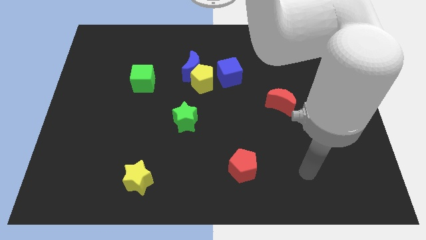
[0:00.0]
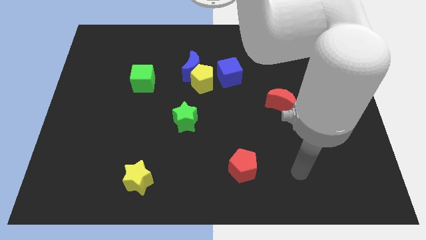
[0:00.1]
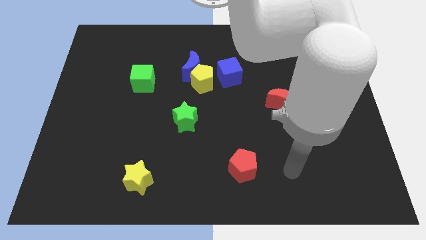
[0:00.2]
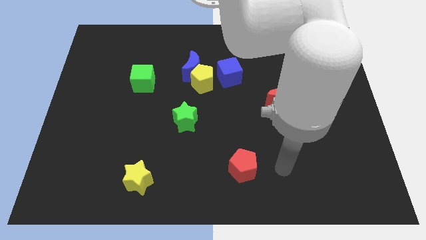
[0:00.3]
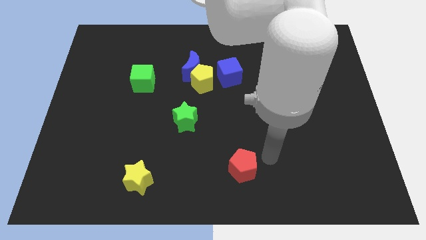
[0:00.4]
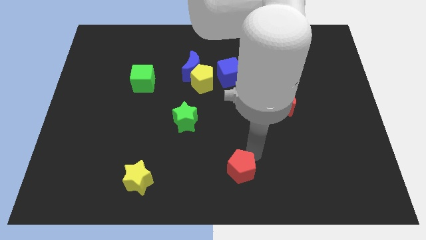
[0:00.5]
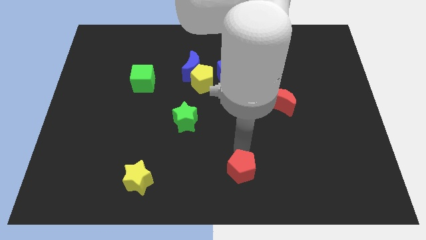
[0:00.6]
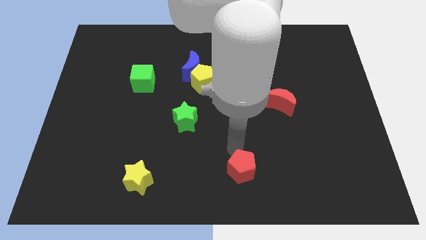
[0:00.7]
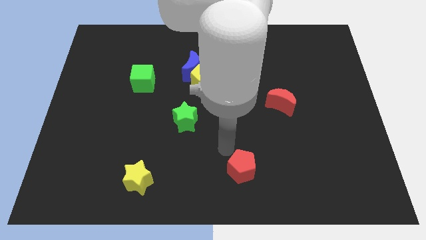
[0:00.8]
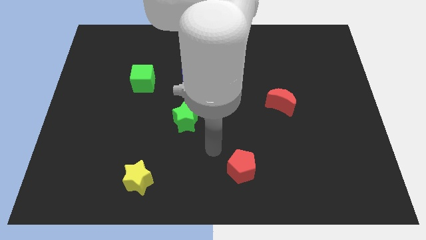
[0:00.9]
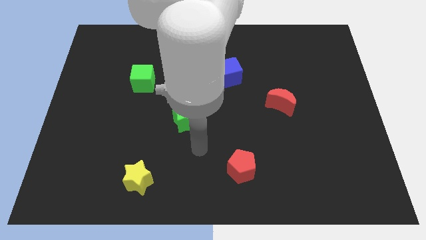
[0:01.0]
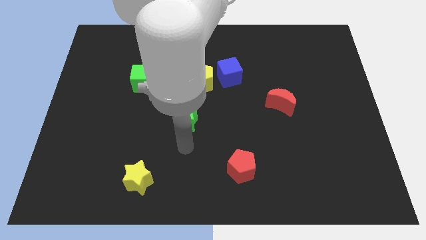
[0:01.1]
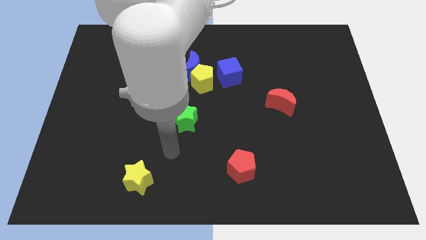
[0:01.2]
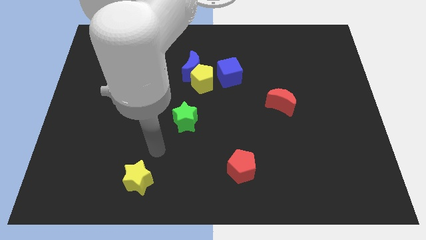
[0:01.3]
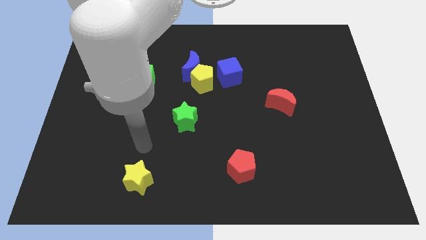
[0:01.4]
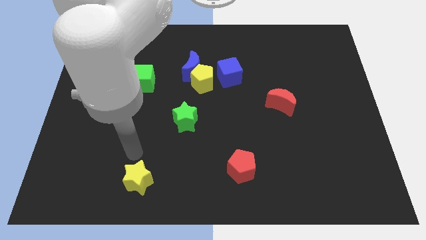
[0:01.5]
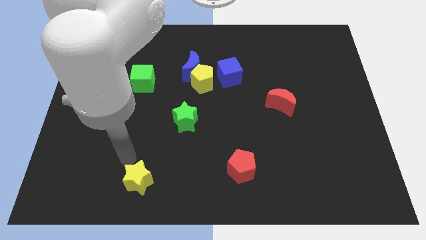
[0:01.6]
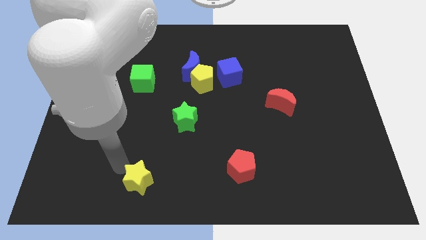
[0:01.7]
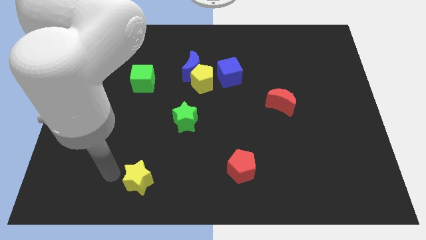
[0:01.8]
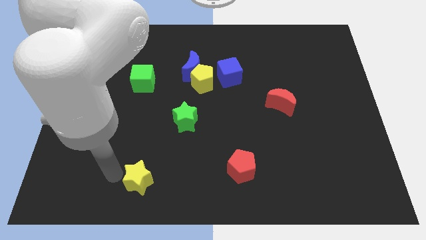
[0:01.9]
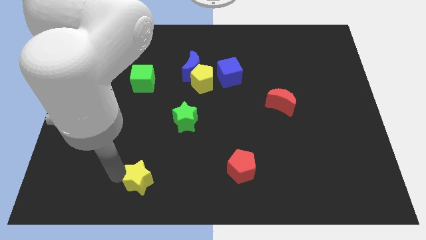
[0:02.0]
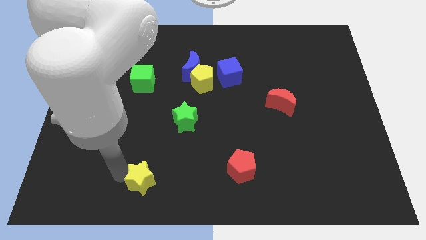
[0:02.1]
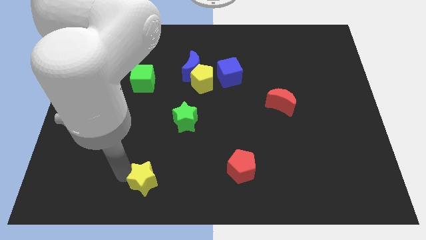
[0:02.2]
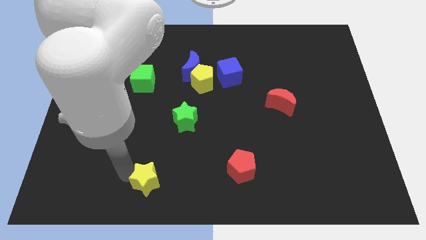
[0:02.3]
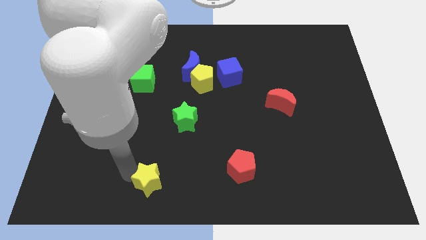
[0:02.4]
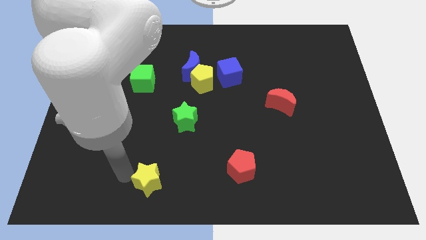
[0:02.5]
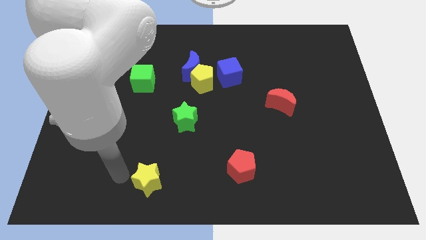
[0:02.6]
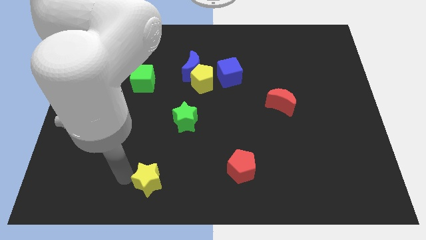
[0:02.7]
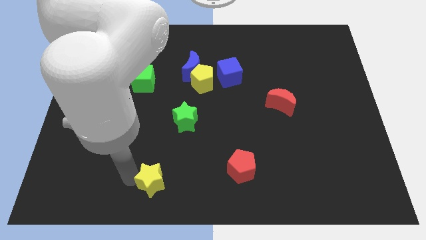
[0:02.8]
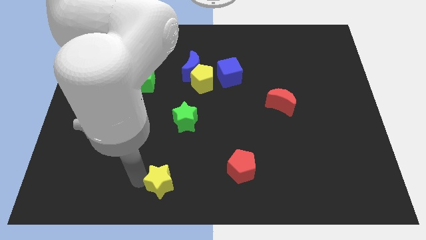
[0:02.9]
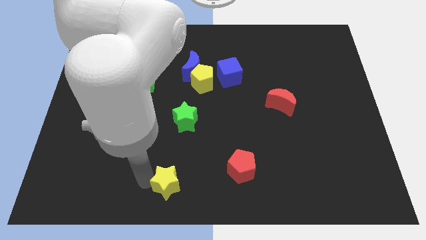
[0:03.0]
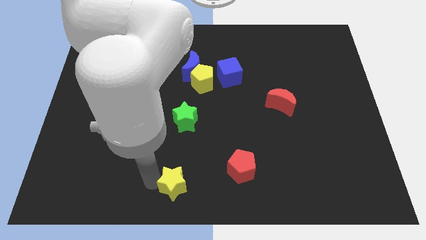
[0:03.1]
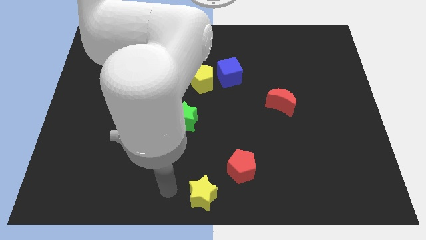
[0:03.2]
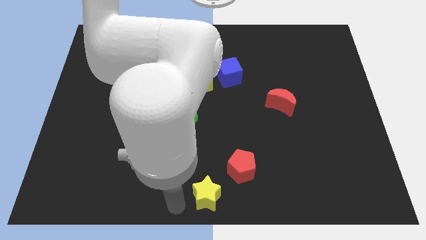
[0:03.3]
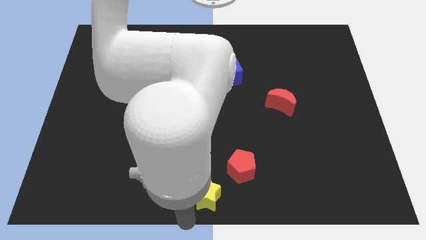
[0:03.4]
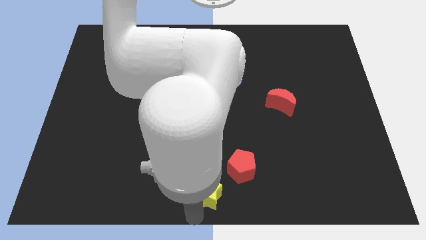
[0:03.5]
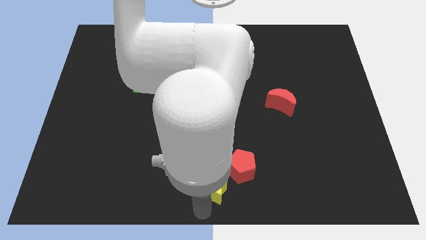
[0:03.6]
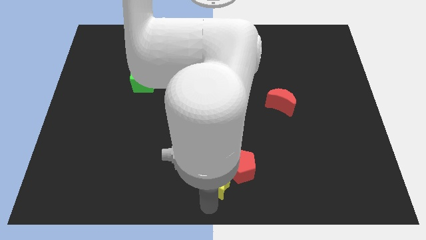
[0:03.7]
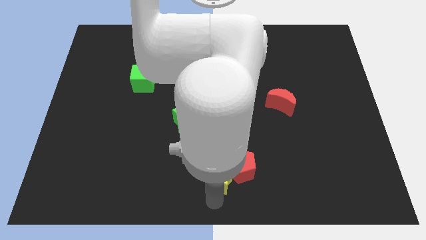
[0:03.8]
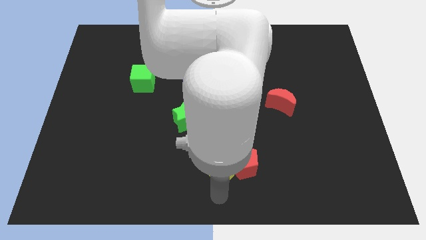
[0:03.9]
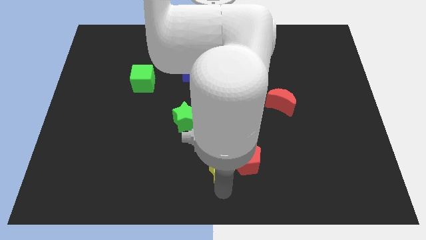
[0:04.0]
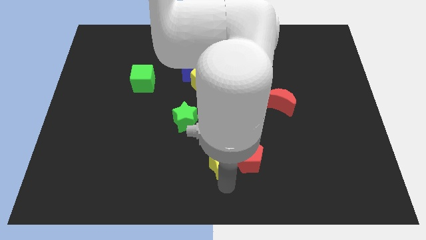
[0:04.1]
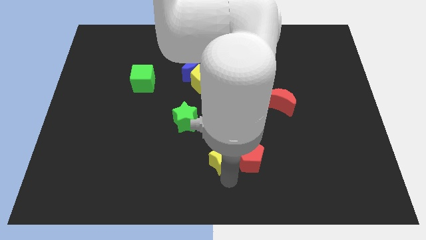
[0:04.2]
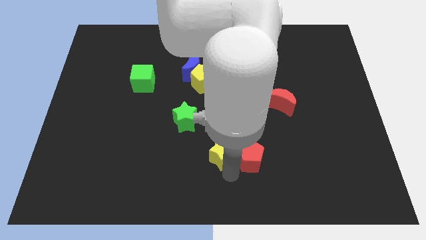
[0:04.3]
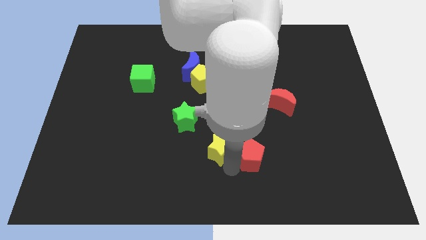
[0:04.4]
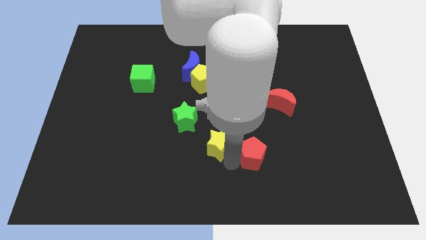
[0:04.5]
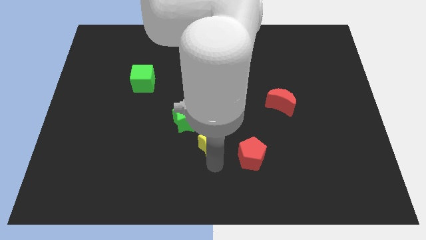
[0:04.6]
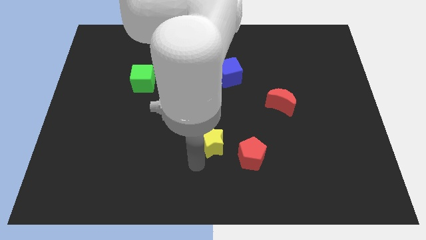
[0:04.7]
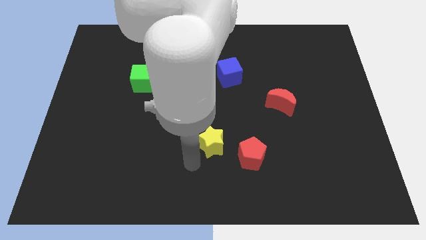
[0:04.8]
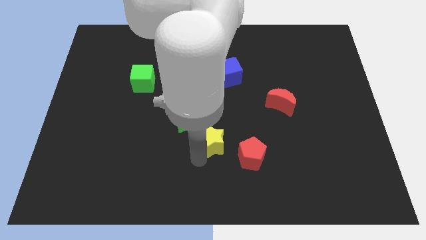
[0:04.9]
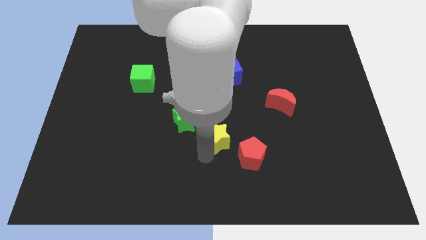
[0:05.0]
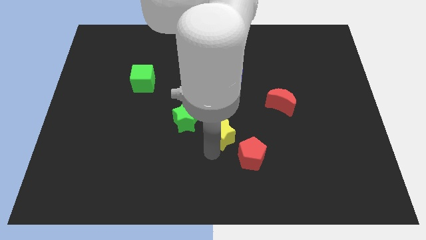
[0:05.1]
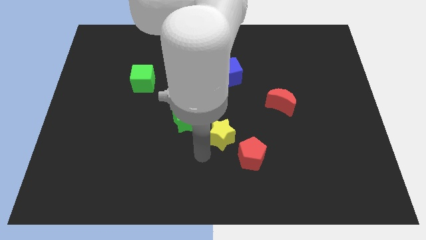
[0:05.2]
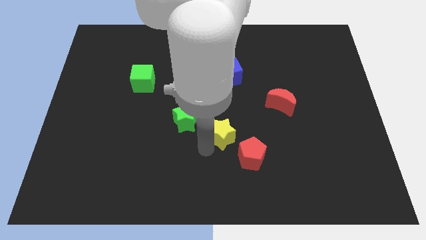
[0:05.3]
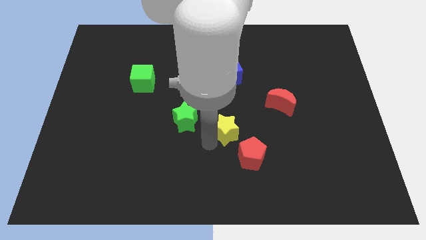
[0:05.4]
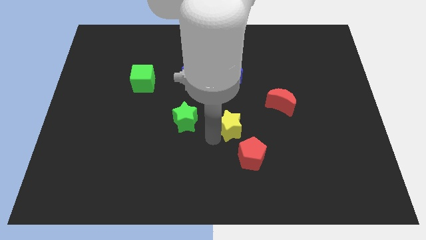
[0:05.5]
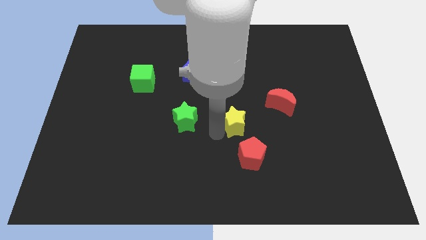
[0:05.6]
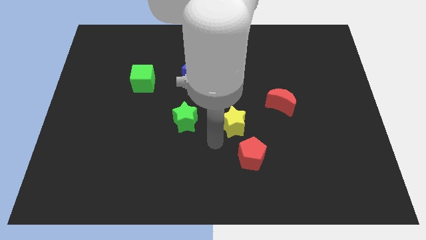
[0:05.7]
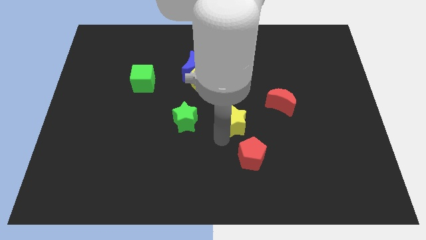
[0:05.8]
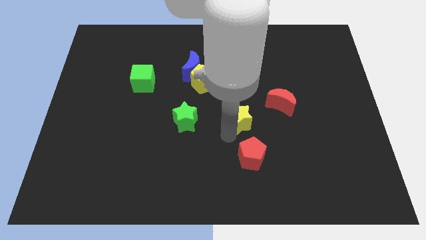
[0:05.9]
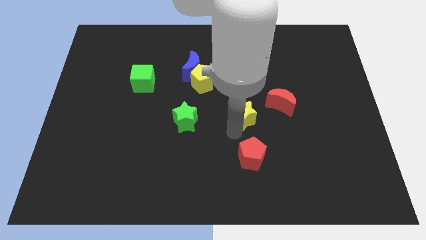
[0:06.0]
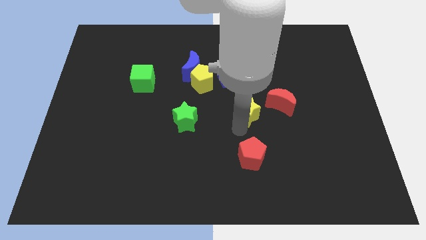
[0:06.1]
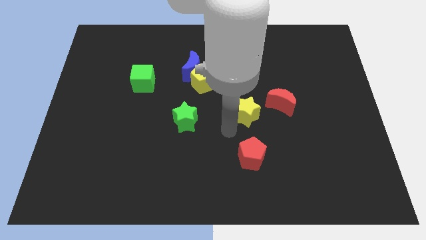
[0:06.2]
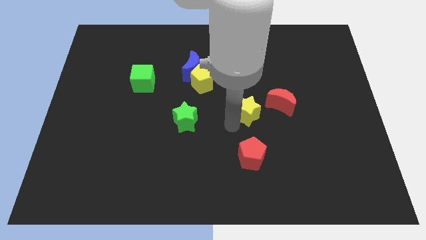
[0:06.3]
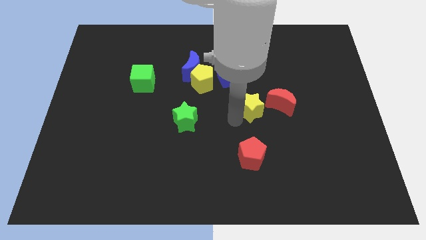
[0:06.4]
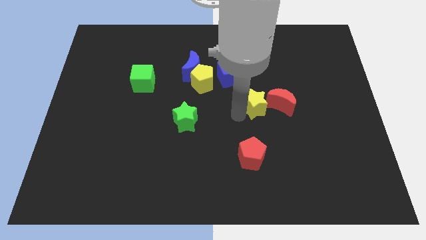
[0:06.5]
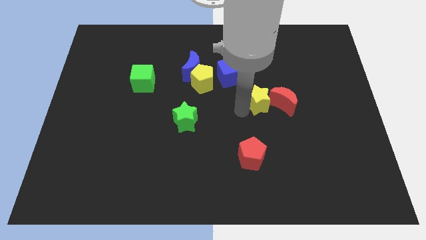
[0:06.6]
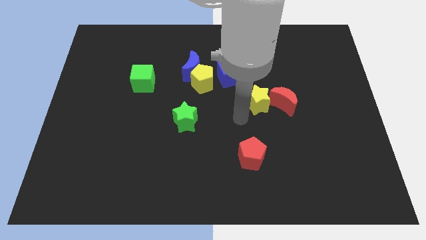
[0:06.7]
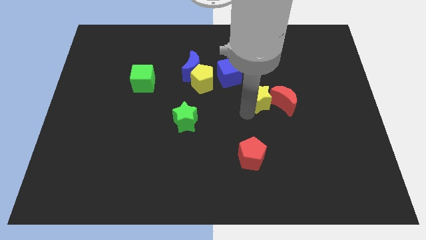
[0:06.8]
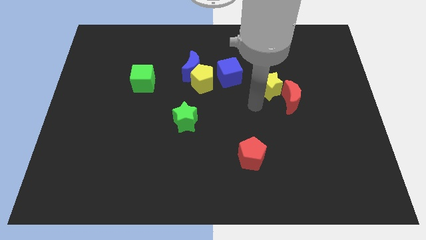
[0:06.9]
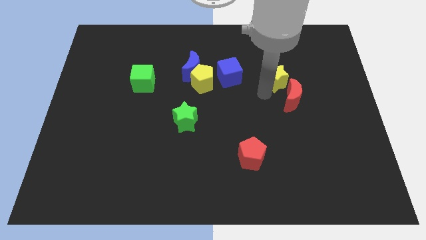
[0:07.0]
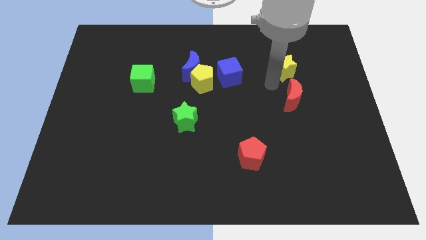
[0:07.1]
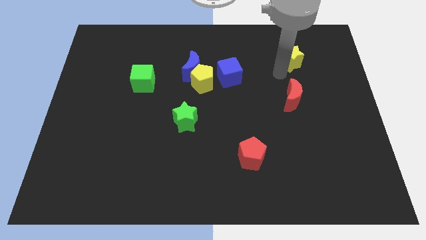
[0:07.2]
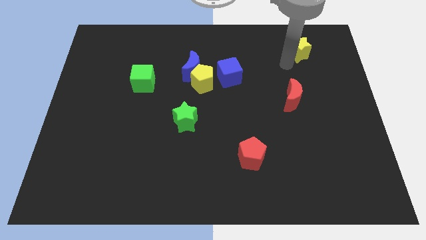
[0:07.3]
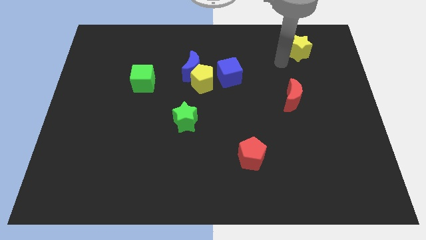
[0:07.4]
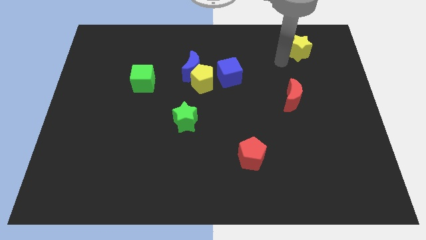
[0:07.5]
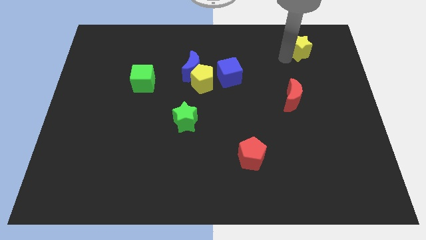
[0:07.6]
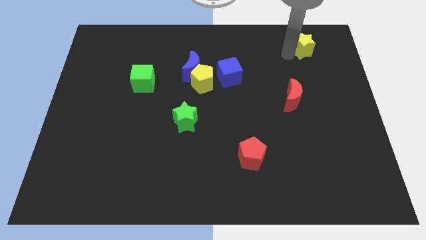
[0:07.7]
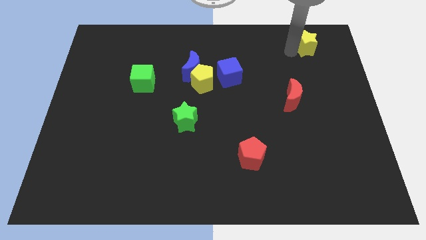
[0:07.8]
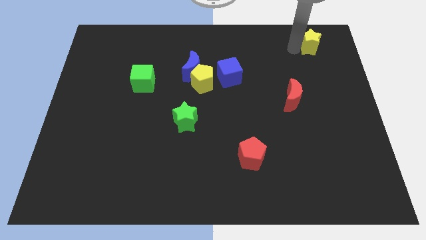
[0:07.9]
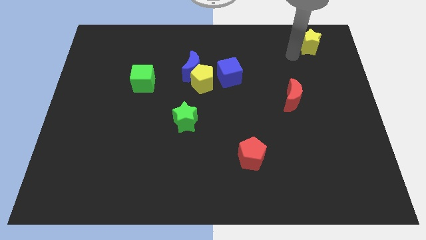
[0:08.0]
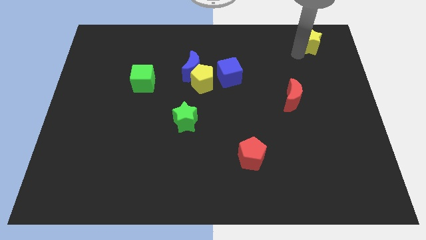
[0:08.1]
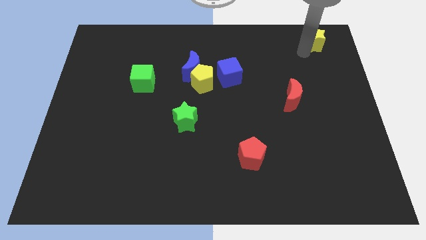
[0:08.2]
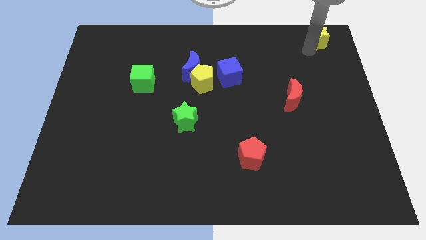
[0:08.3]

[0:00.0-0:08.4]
put the yellow star to the upper right corner
